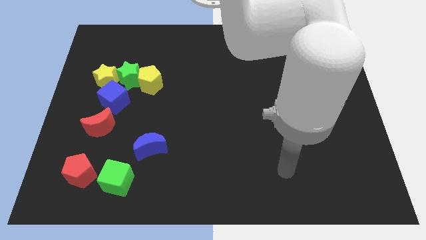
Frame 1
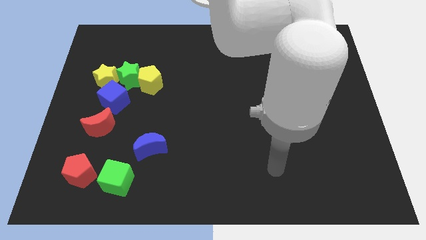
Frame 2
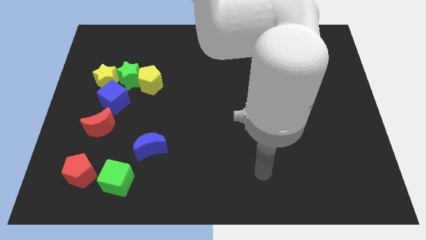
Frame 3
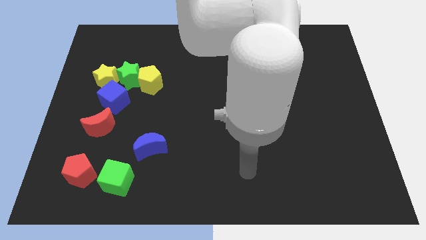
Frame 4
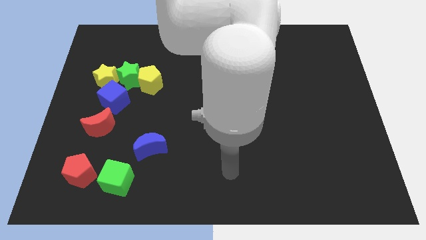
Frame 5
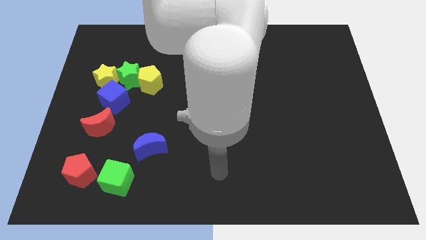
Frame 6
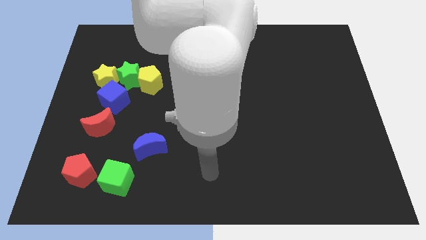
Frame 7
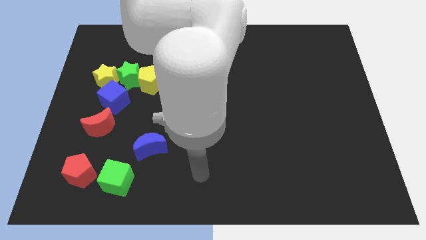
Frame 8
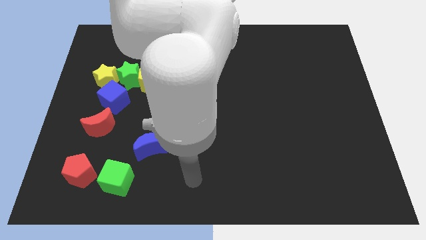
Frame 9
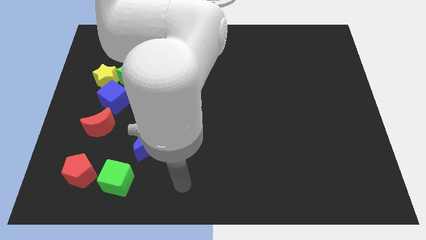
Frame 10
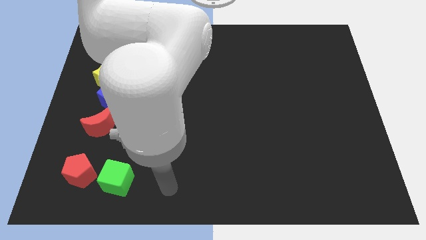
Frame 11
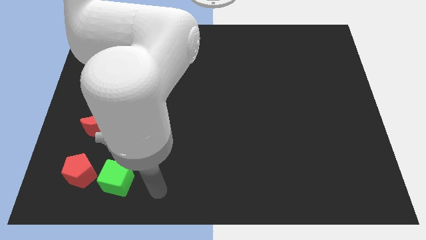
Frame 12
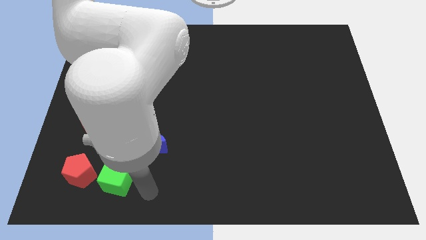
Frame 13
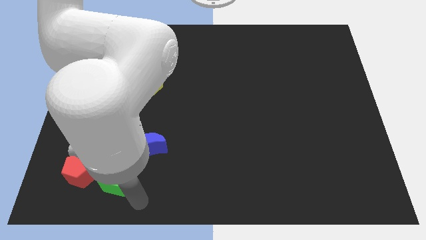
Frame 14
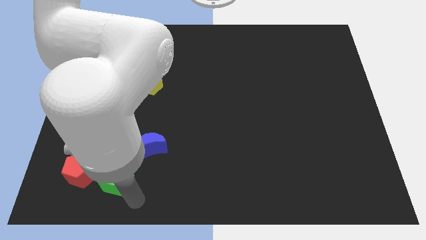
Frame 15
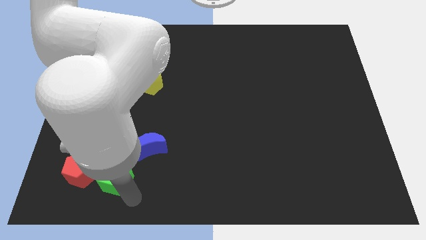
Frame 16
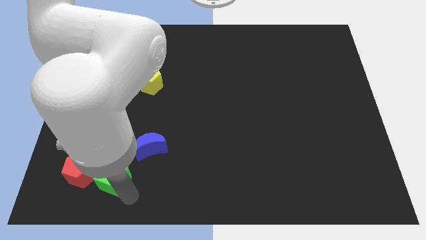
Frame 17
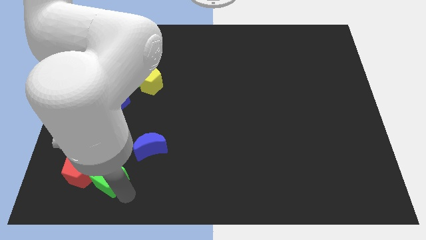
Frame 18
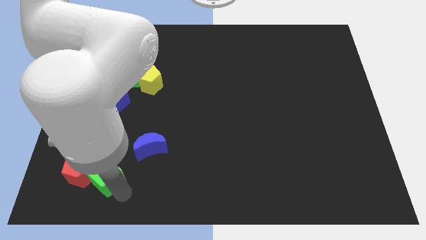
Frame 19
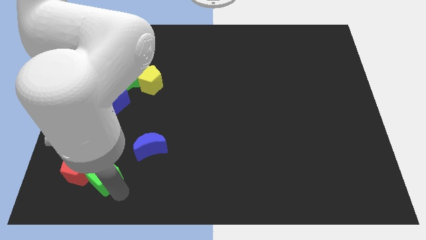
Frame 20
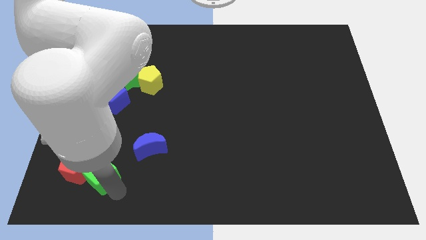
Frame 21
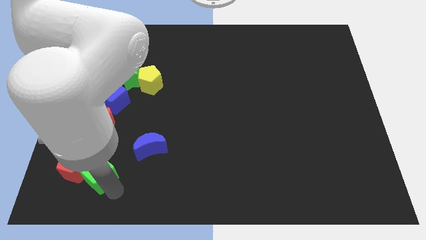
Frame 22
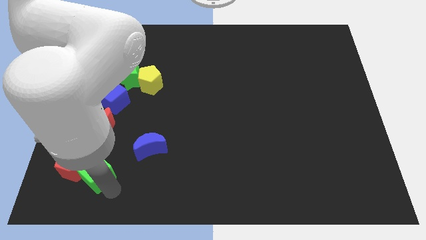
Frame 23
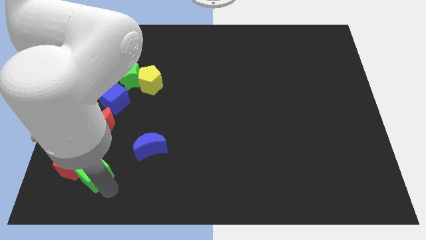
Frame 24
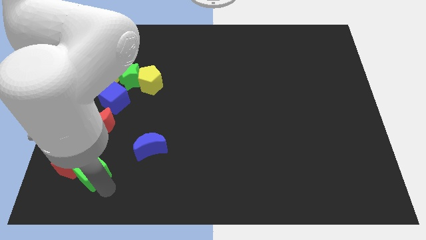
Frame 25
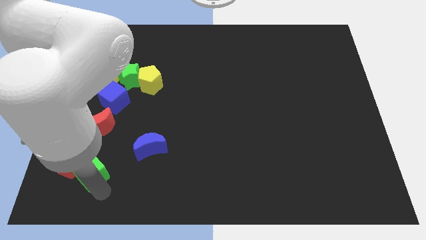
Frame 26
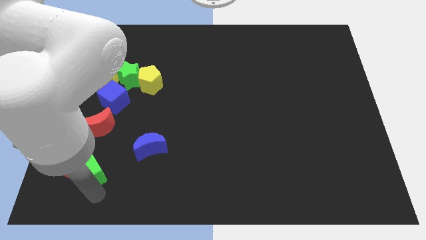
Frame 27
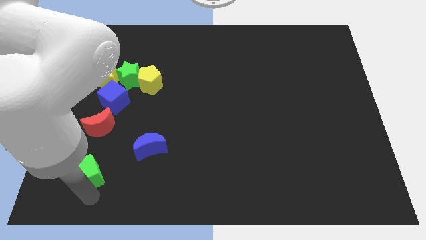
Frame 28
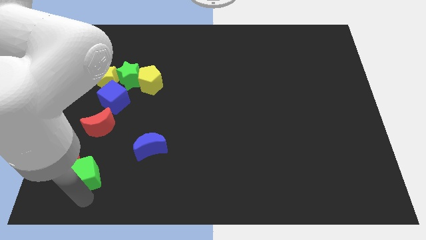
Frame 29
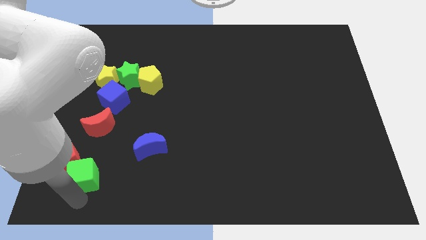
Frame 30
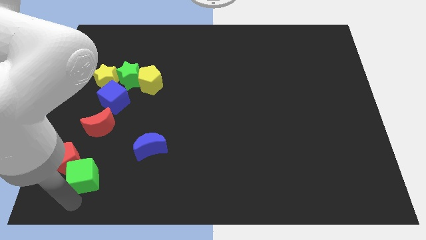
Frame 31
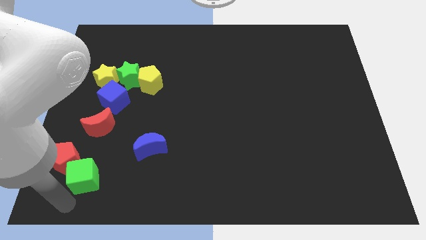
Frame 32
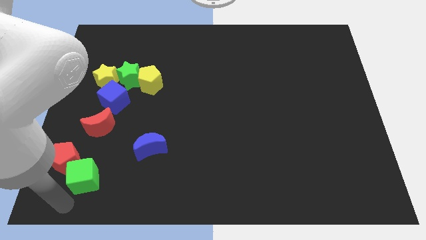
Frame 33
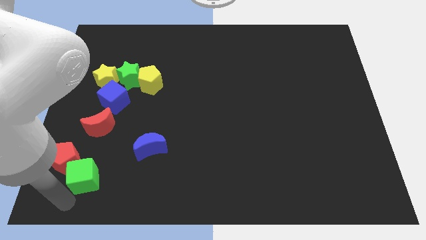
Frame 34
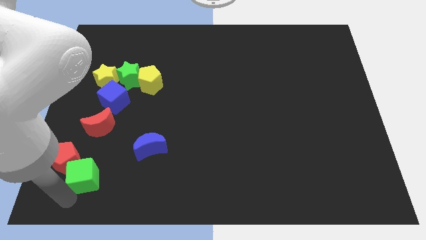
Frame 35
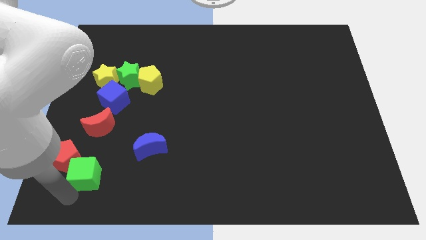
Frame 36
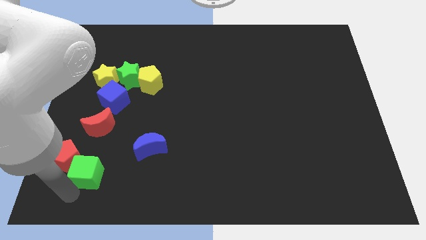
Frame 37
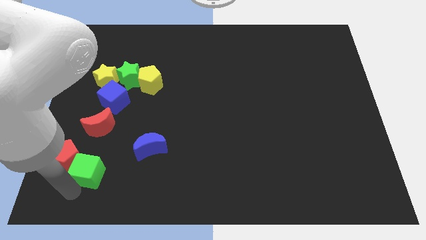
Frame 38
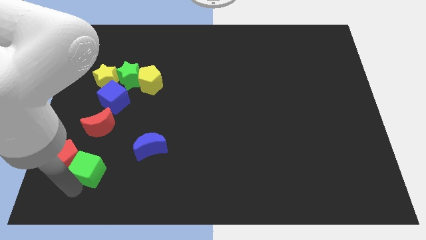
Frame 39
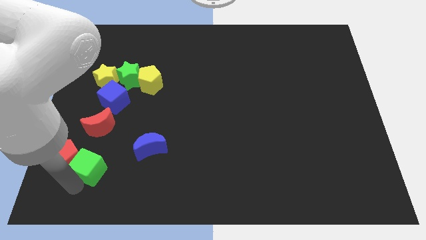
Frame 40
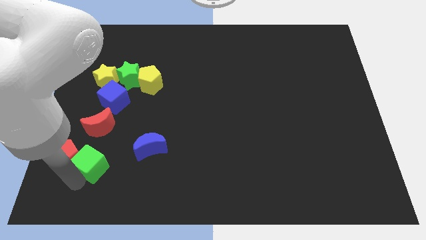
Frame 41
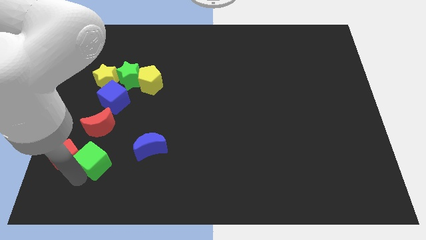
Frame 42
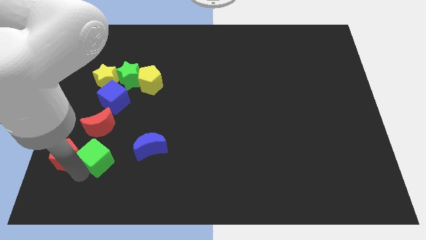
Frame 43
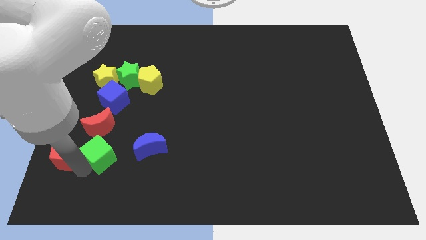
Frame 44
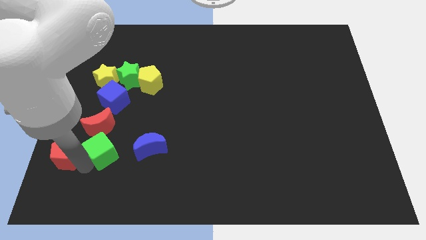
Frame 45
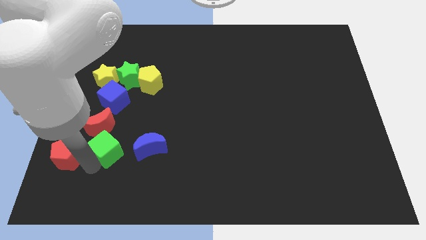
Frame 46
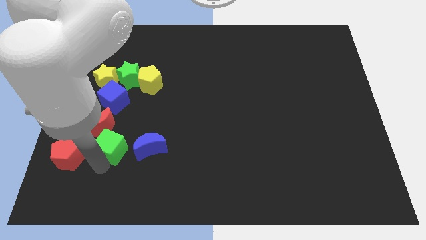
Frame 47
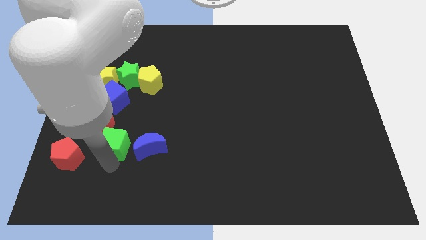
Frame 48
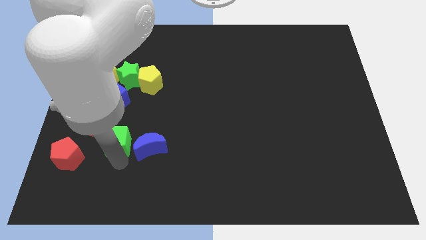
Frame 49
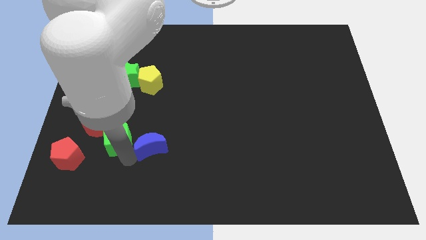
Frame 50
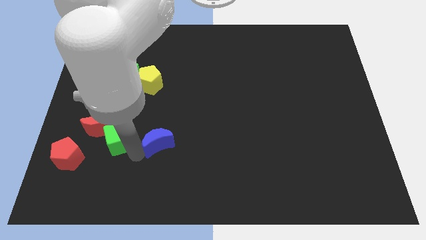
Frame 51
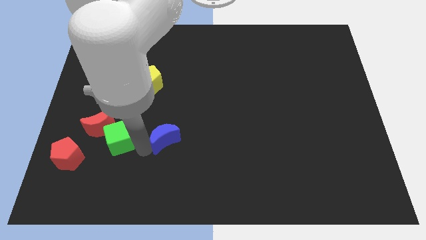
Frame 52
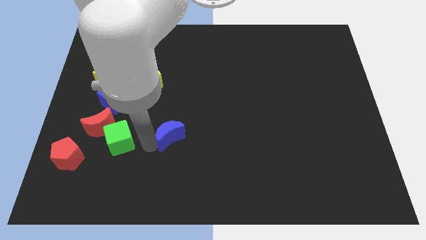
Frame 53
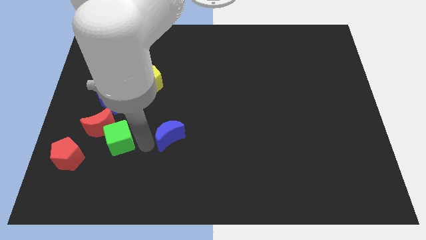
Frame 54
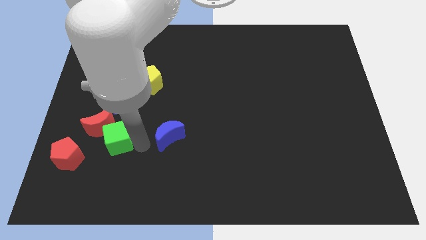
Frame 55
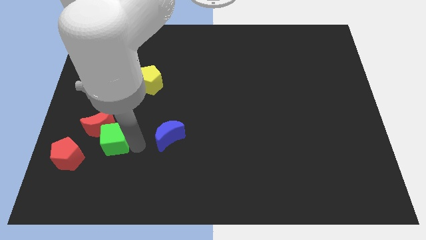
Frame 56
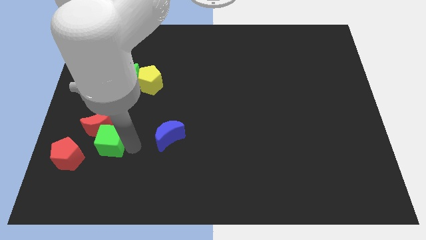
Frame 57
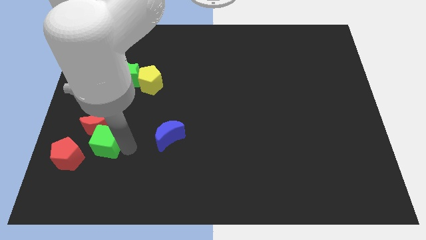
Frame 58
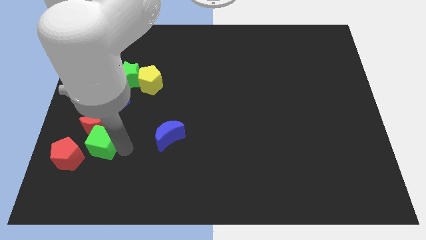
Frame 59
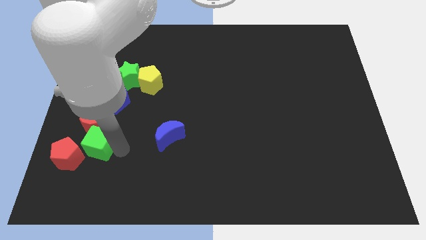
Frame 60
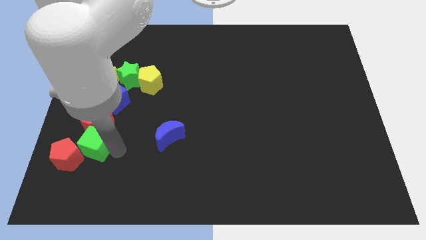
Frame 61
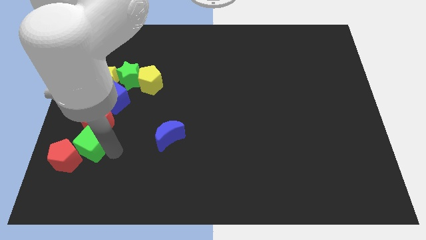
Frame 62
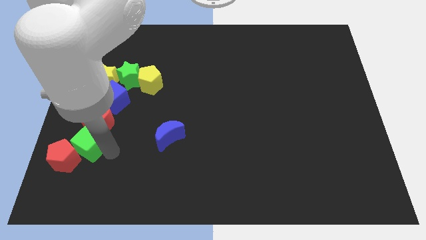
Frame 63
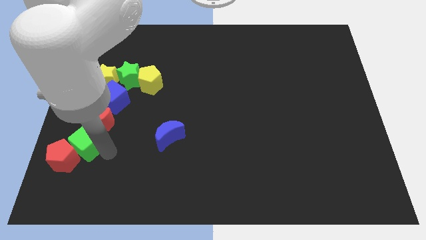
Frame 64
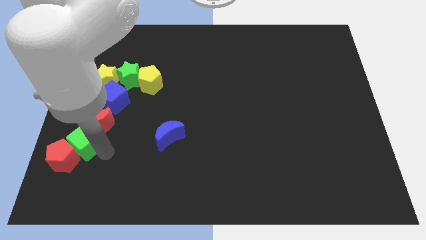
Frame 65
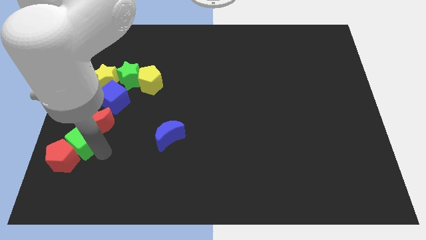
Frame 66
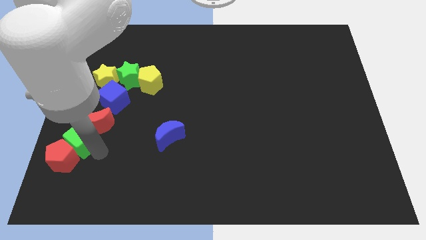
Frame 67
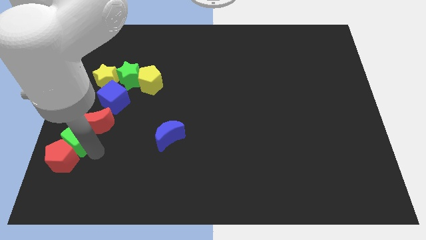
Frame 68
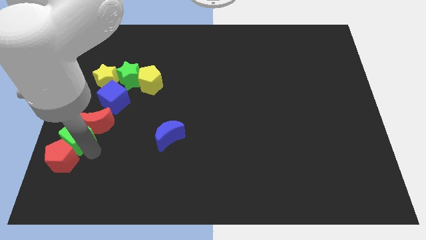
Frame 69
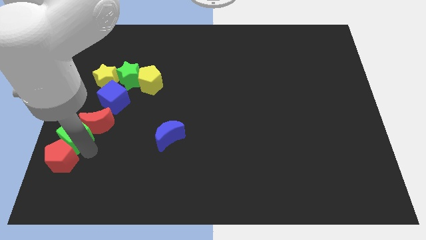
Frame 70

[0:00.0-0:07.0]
move the green cube to the left side

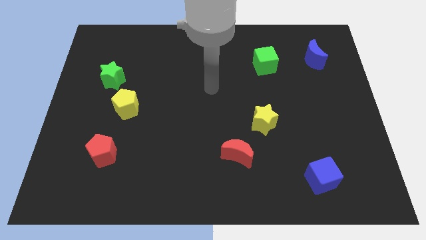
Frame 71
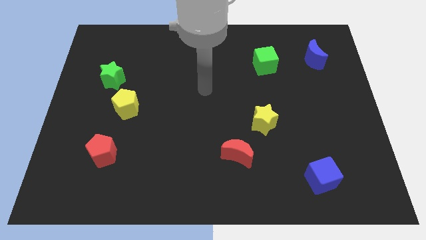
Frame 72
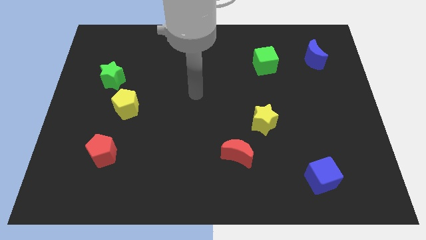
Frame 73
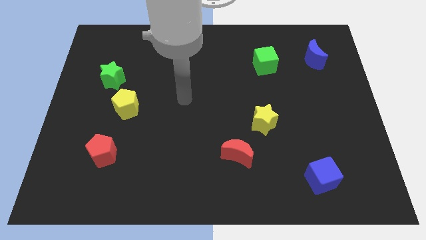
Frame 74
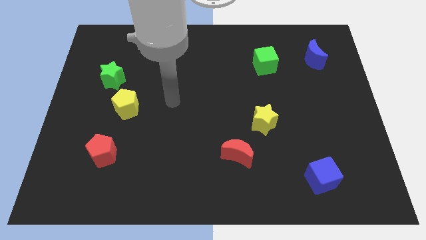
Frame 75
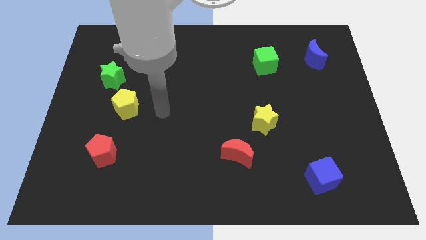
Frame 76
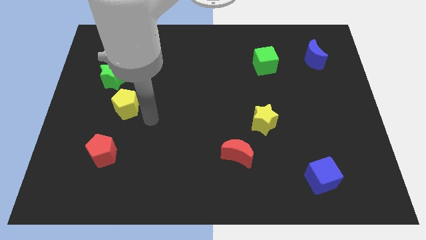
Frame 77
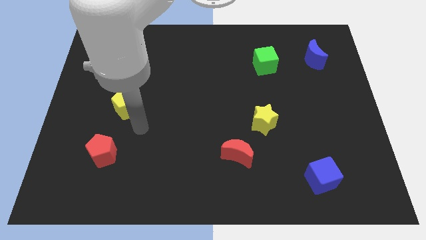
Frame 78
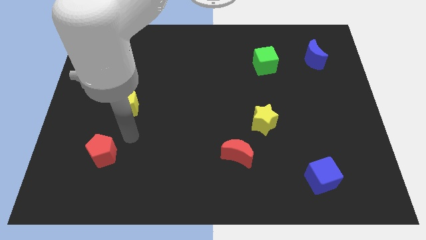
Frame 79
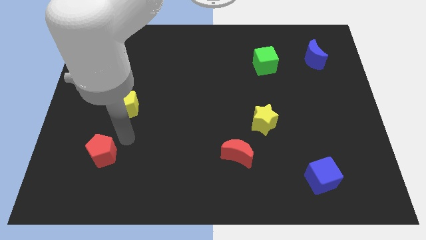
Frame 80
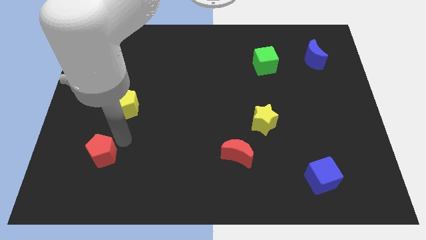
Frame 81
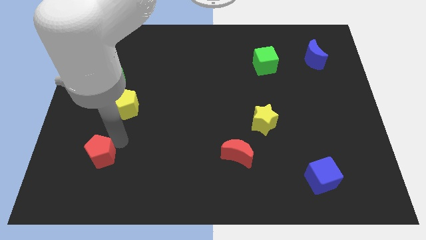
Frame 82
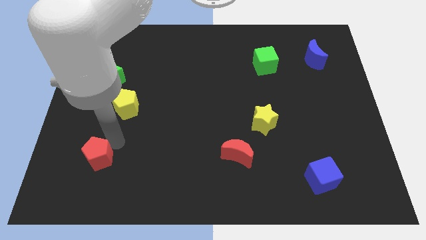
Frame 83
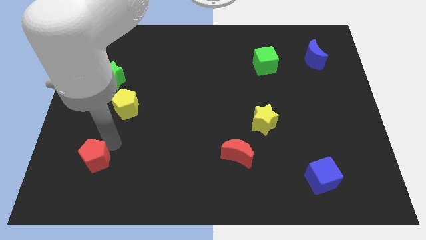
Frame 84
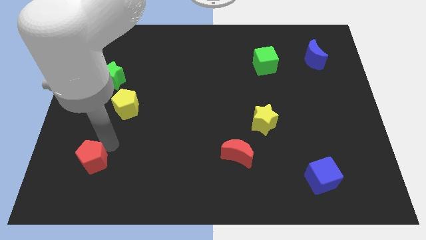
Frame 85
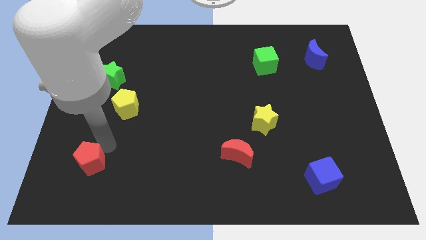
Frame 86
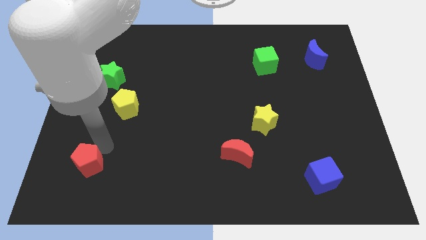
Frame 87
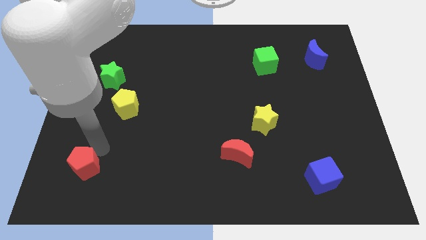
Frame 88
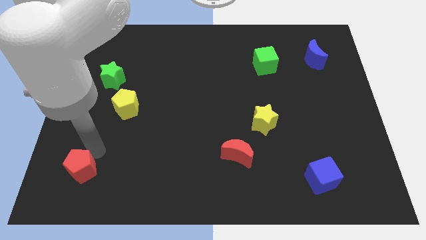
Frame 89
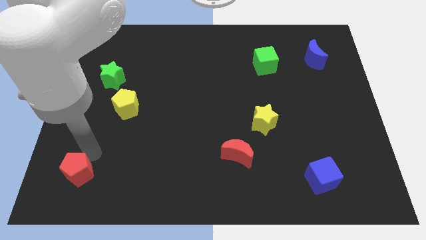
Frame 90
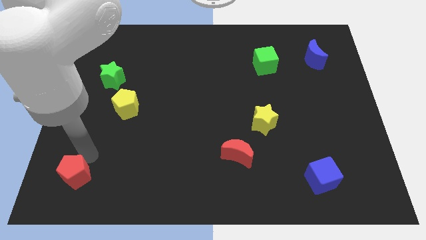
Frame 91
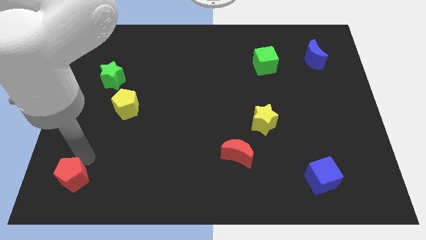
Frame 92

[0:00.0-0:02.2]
put the red pentagon to the lower left corner
